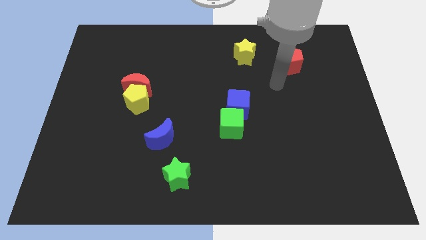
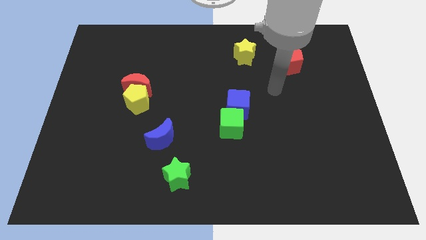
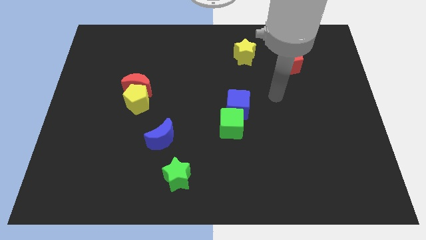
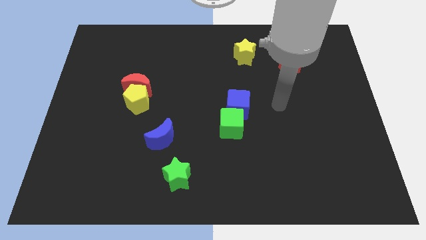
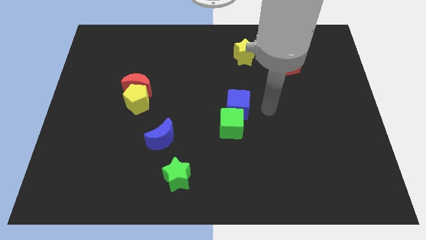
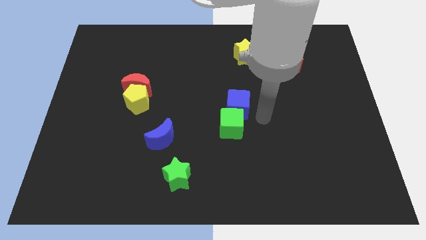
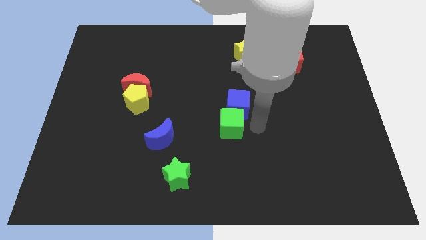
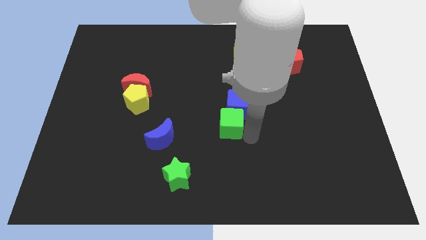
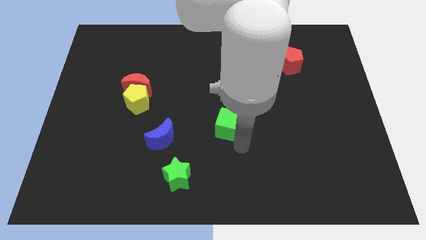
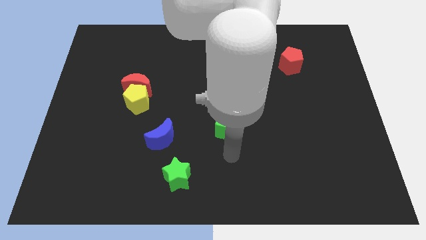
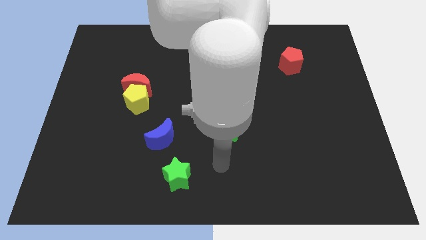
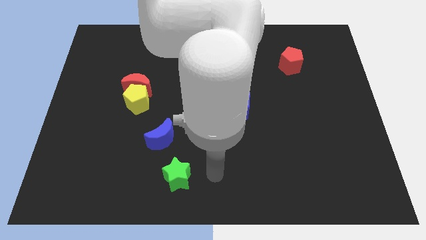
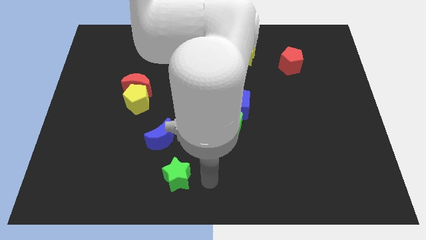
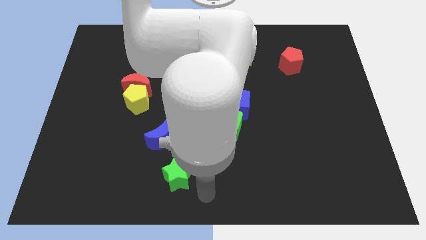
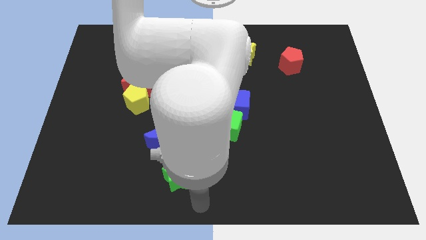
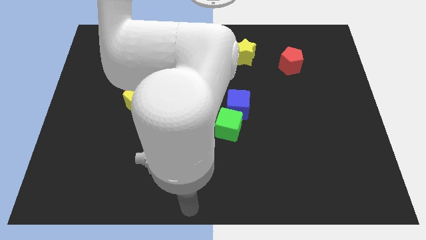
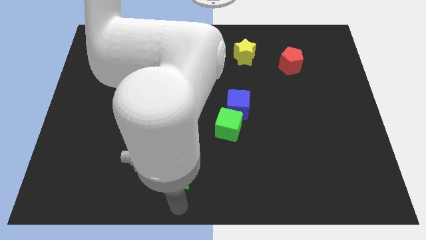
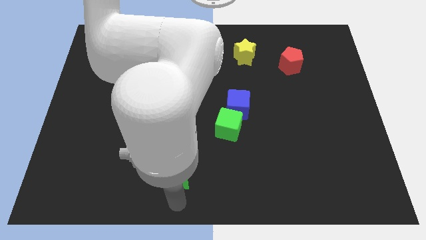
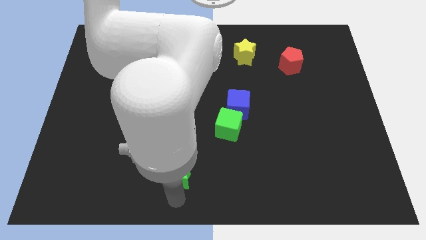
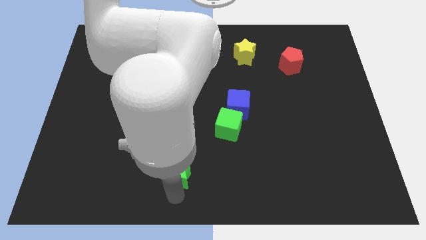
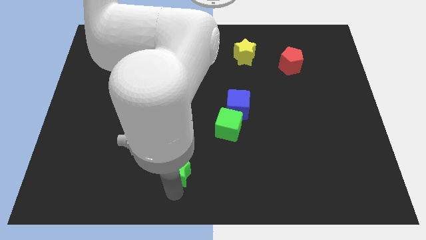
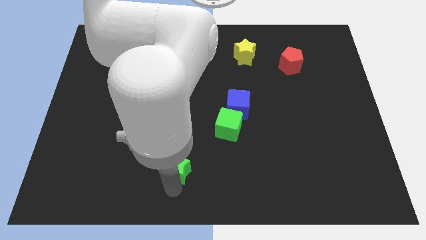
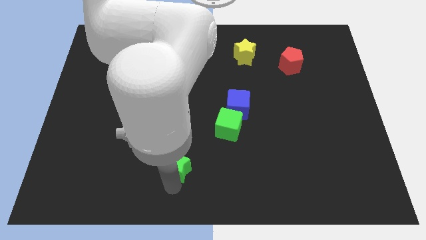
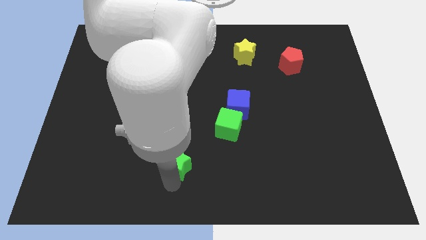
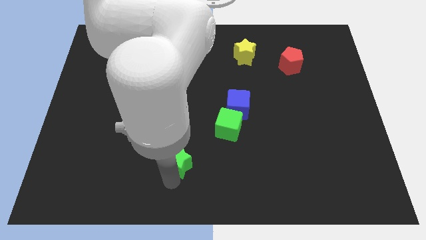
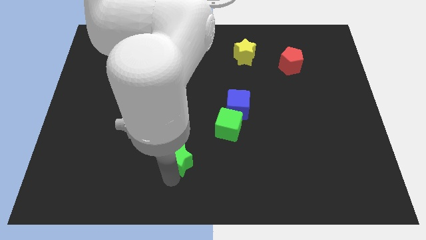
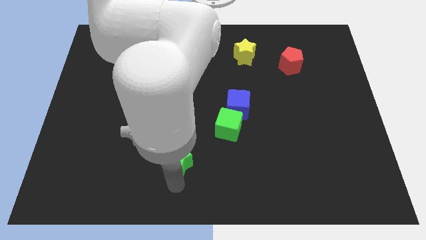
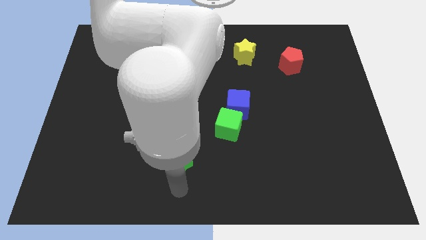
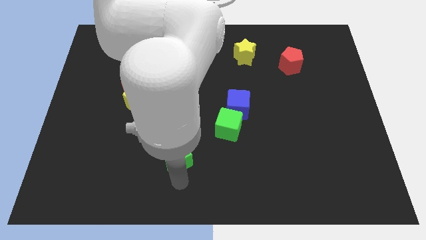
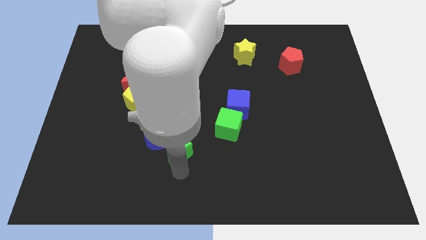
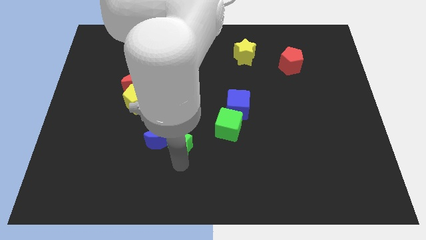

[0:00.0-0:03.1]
move the green star up a little

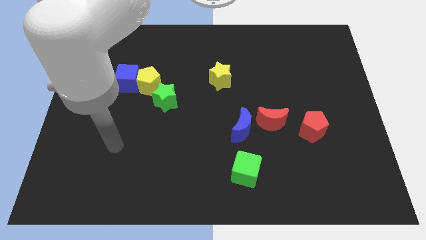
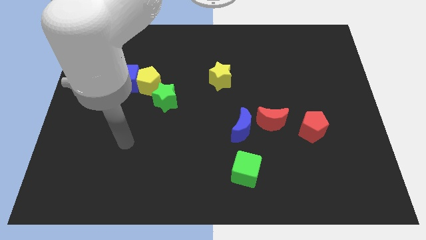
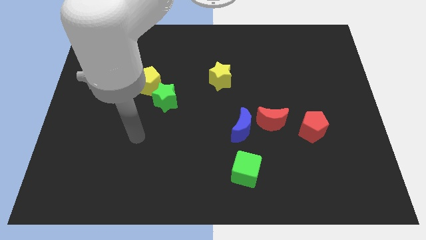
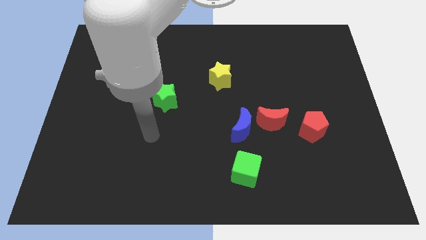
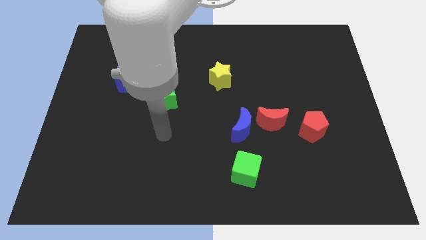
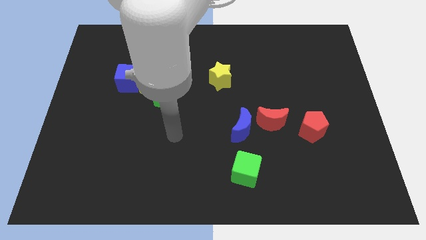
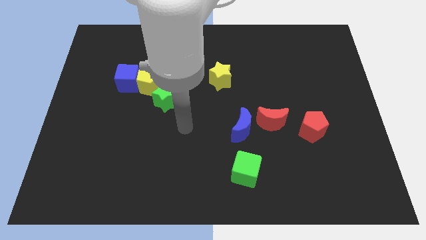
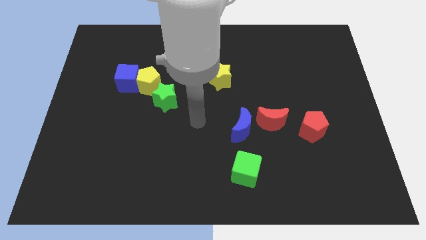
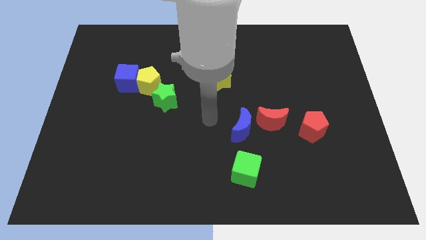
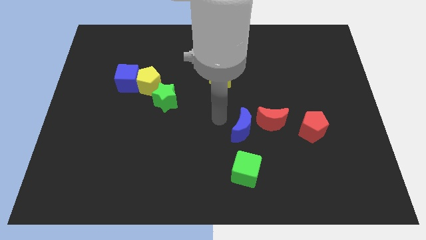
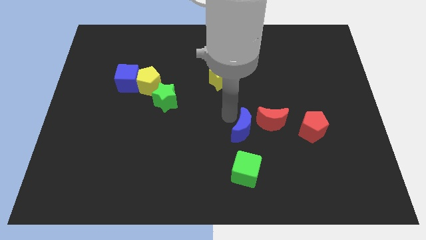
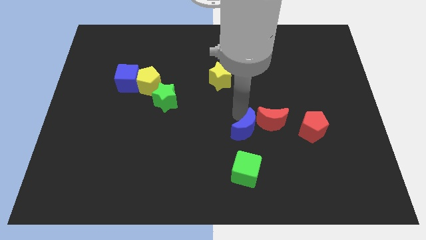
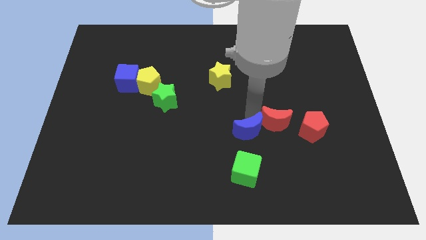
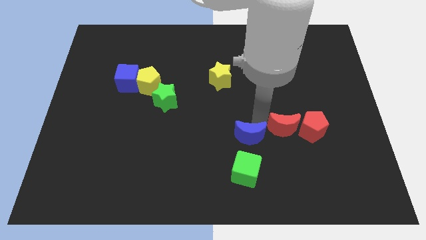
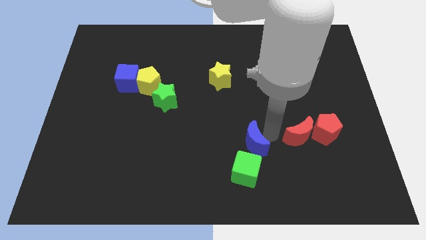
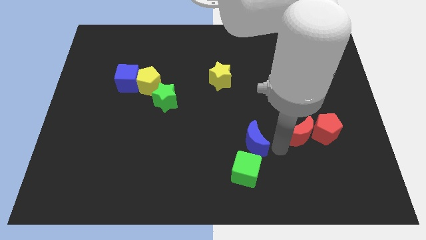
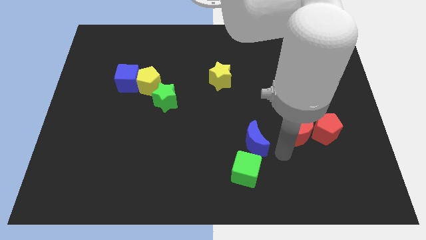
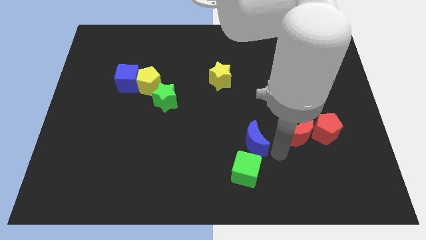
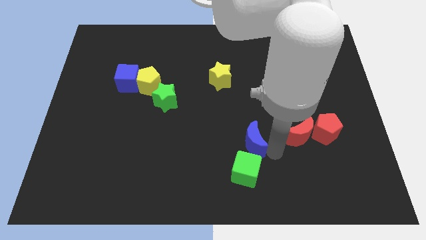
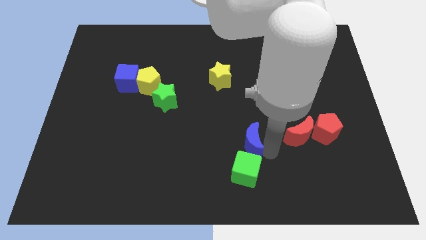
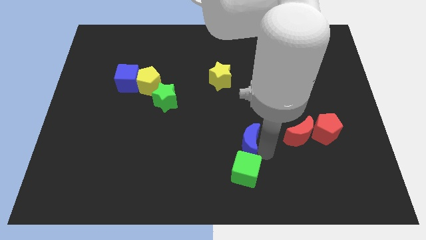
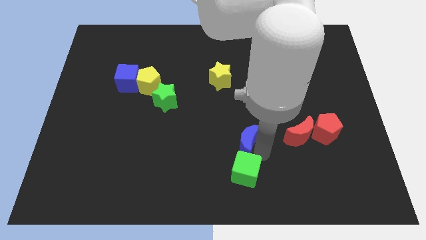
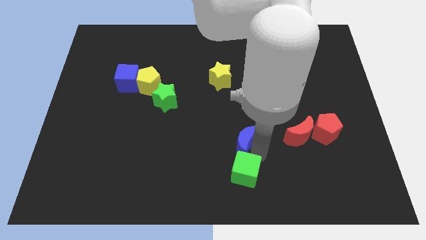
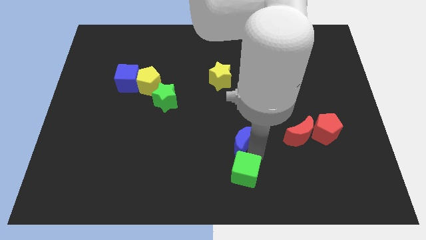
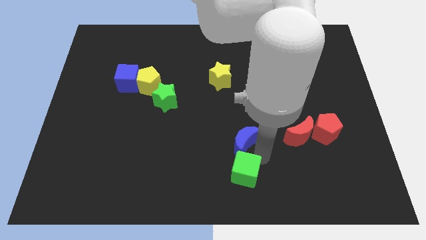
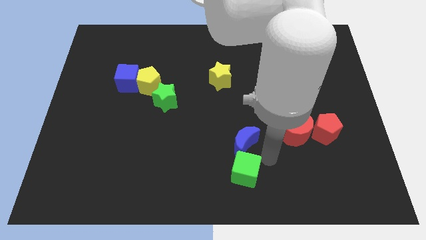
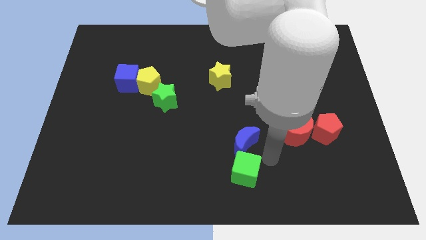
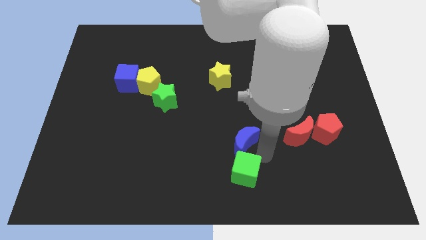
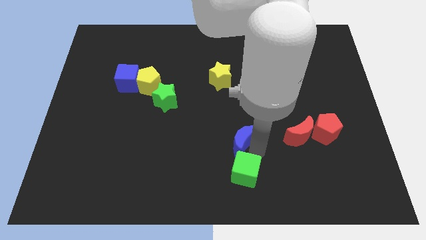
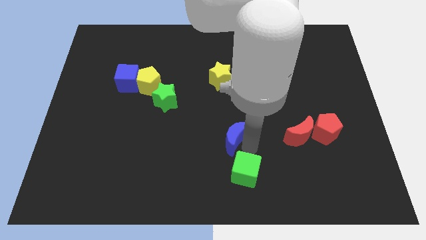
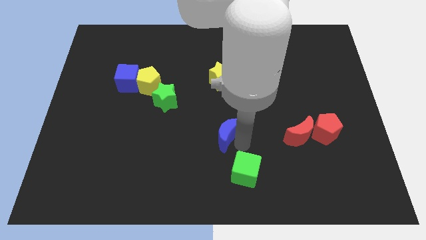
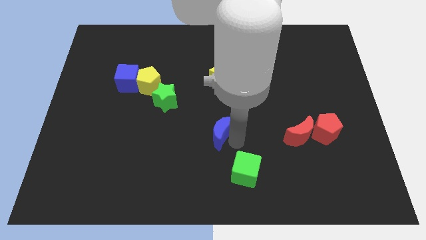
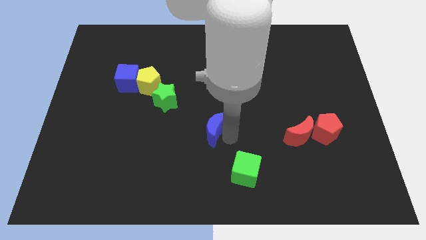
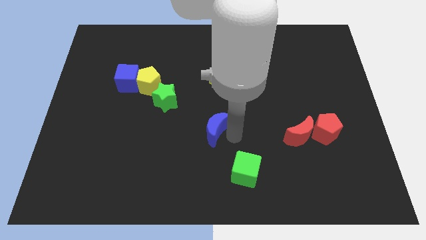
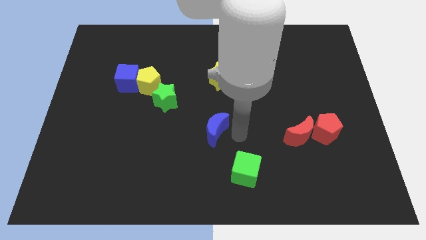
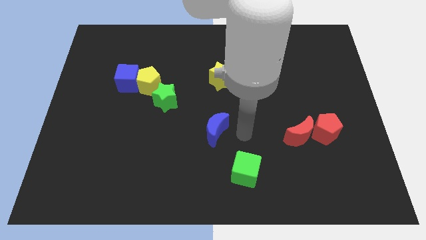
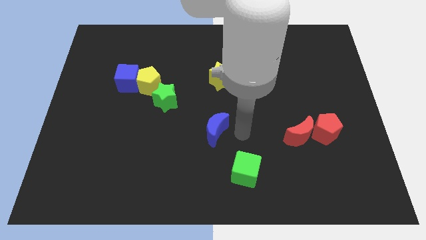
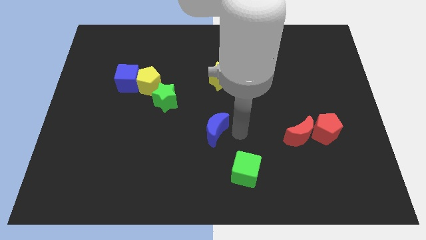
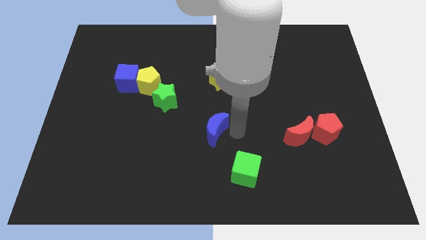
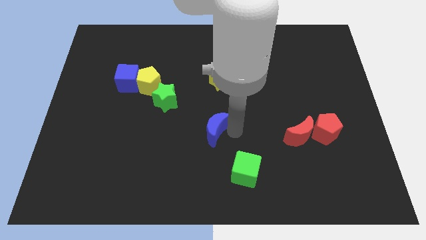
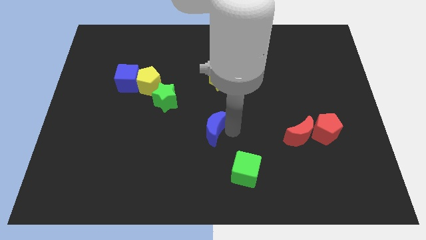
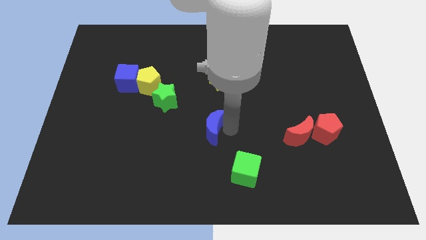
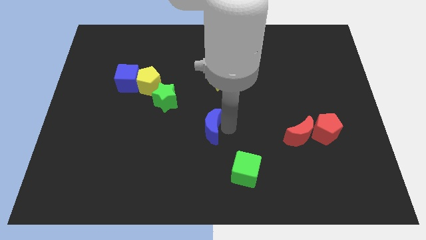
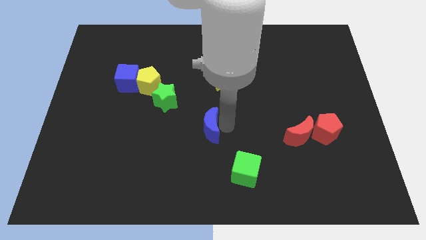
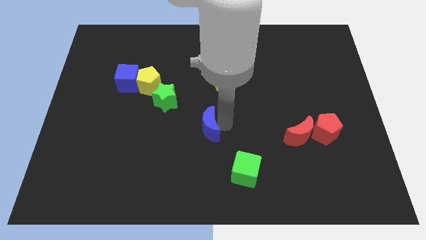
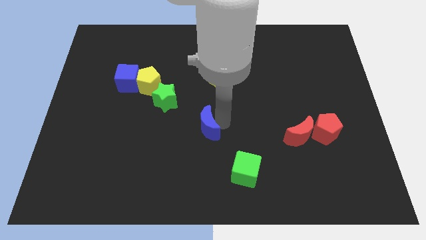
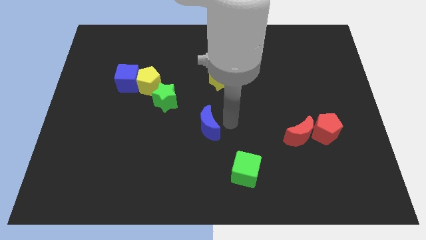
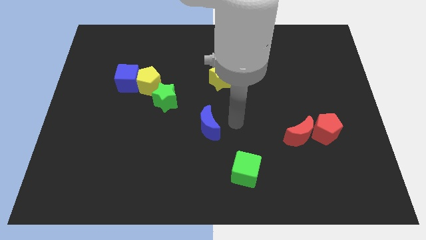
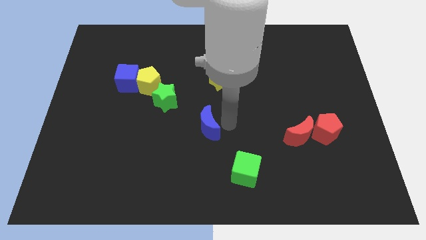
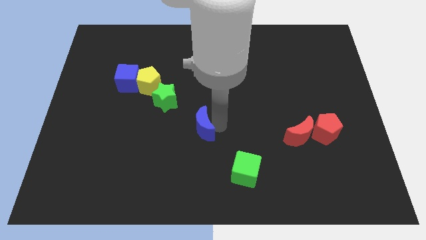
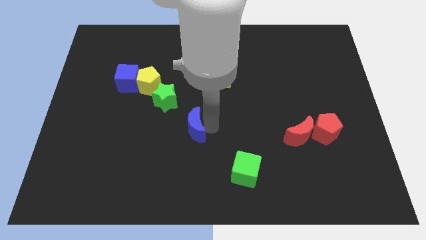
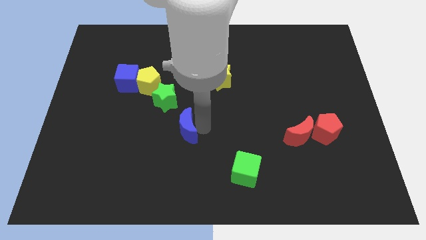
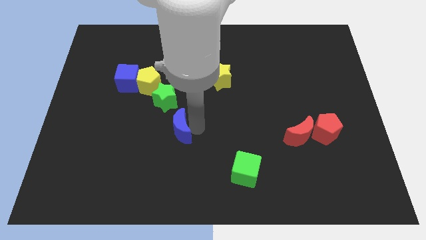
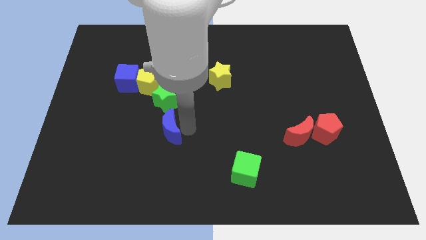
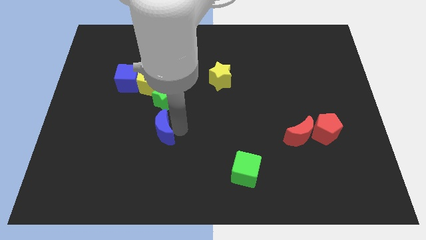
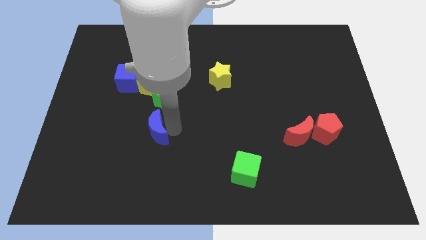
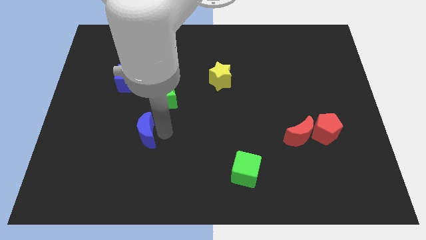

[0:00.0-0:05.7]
slide the blue moon left
